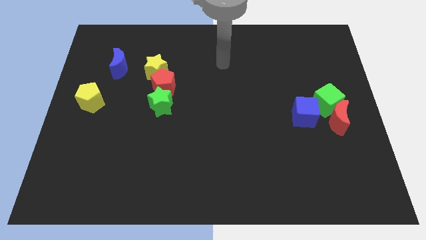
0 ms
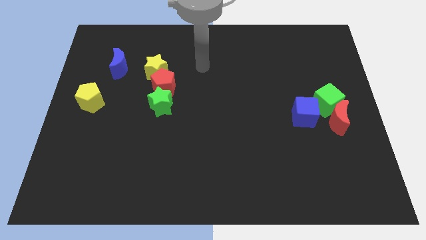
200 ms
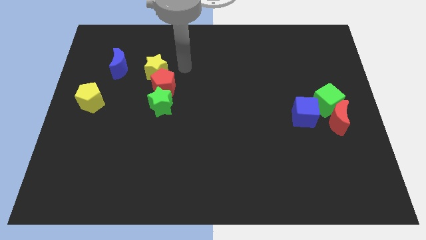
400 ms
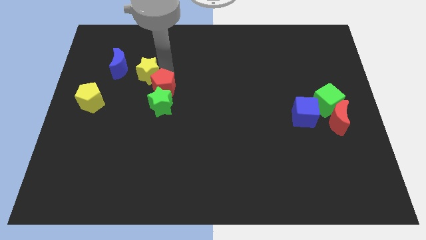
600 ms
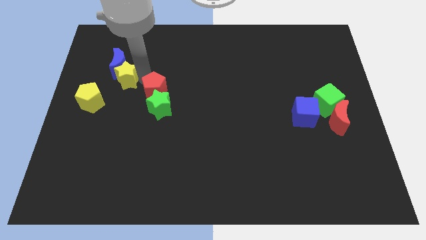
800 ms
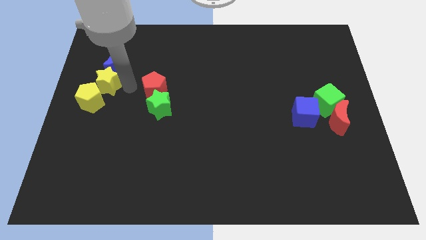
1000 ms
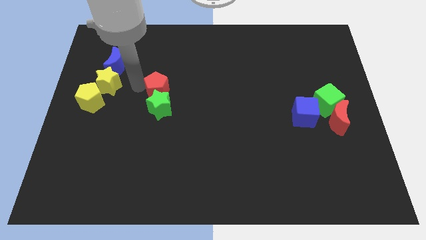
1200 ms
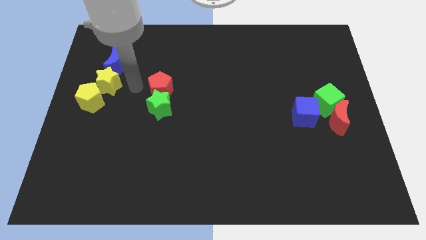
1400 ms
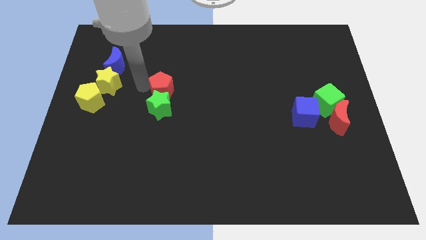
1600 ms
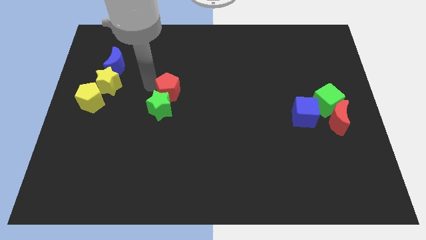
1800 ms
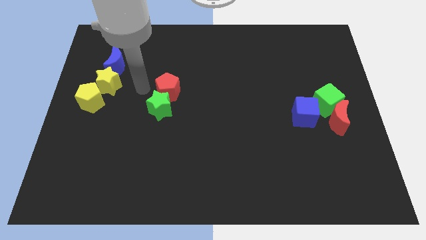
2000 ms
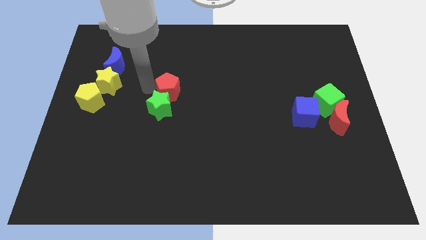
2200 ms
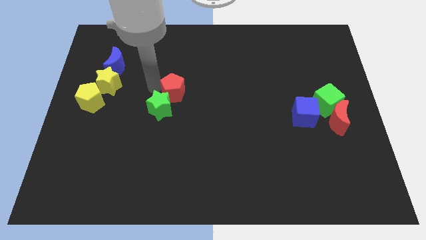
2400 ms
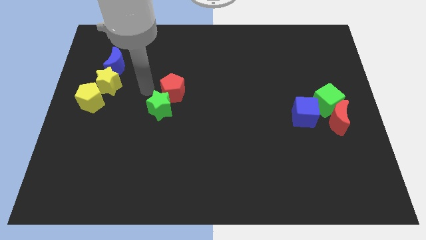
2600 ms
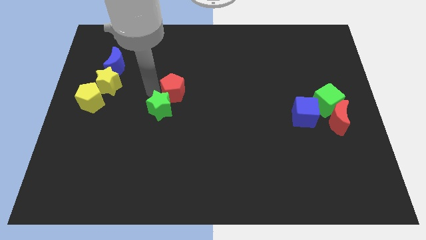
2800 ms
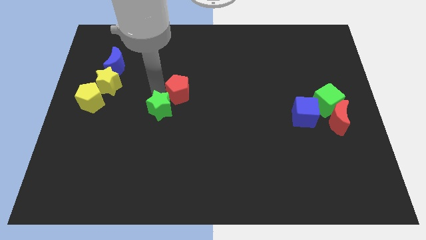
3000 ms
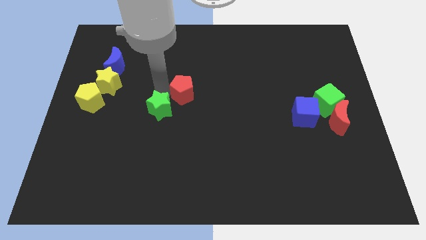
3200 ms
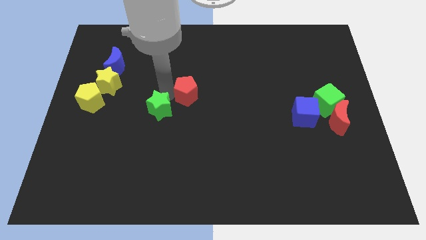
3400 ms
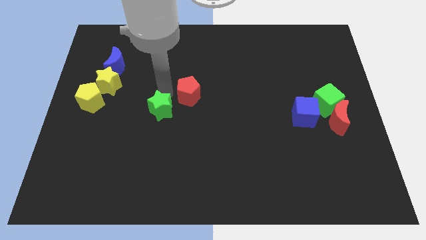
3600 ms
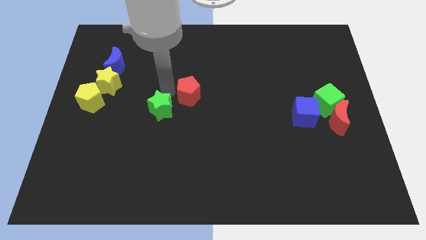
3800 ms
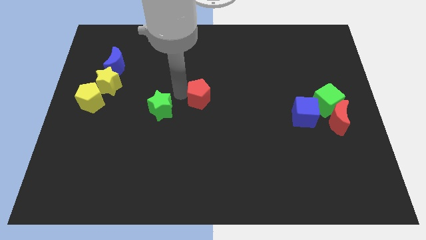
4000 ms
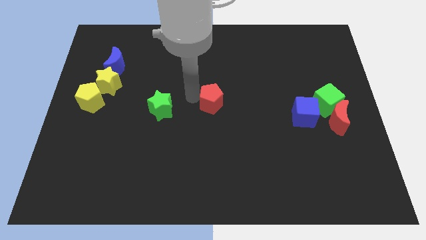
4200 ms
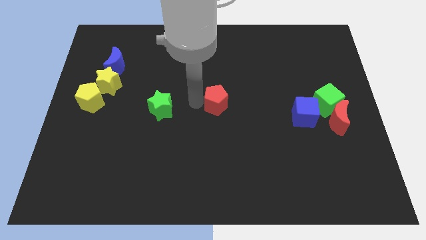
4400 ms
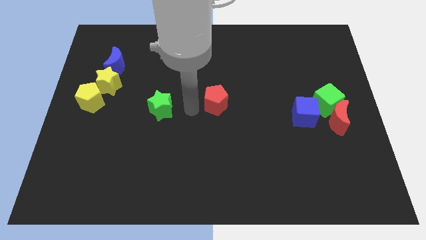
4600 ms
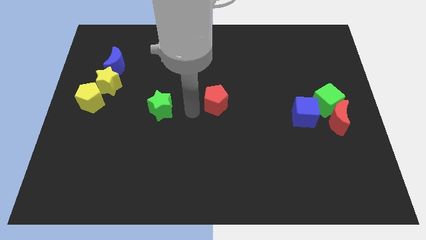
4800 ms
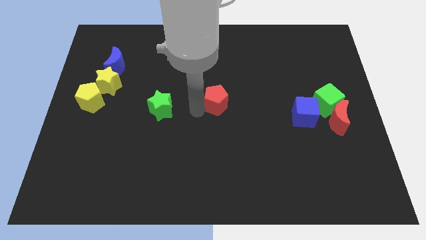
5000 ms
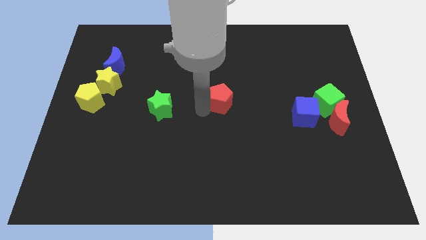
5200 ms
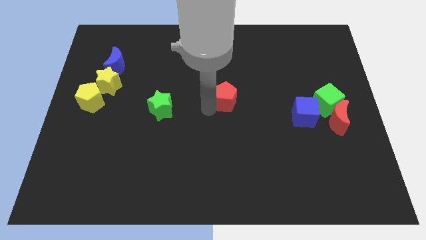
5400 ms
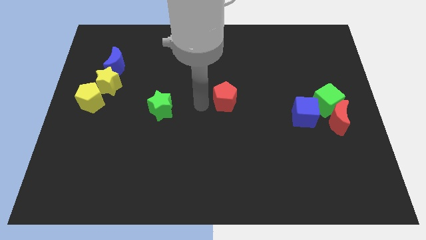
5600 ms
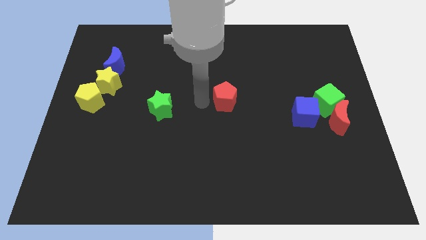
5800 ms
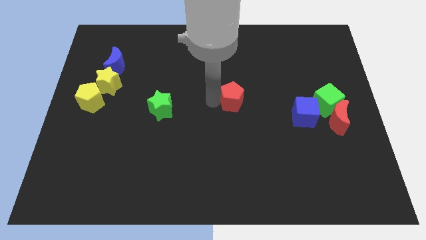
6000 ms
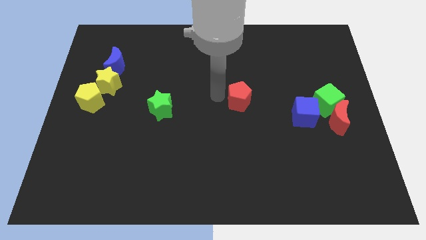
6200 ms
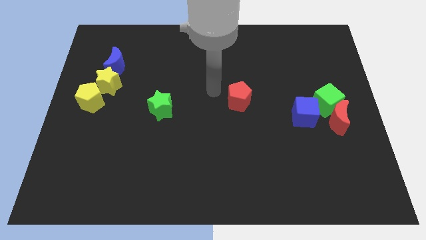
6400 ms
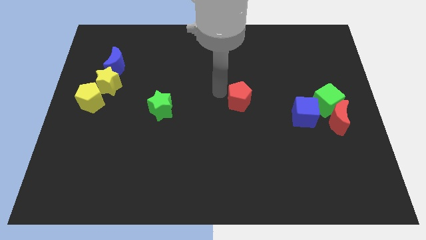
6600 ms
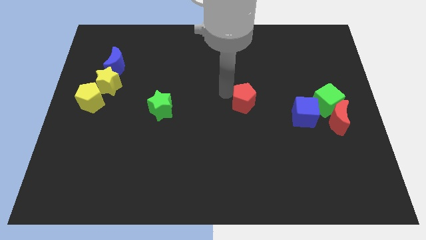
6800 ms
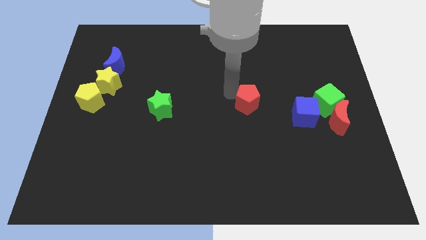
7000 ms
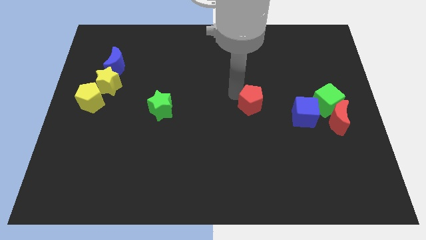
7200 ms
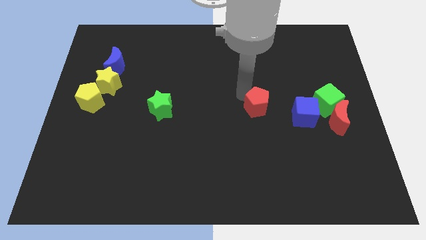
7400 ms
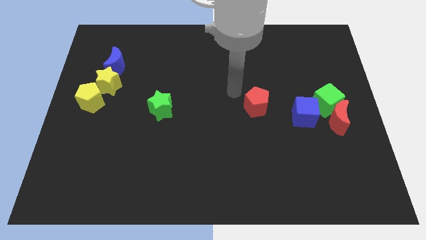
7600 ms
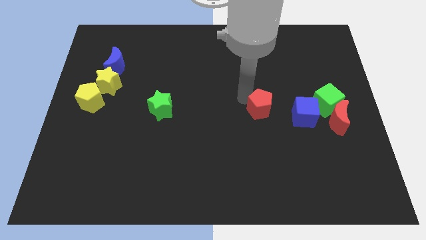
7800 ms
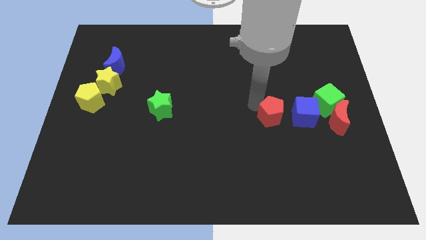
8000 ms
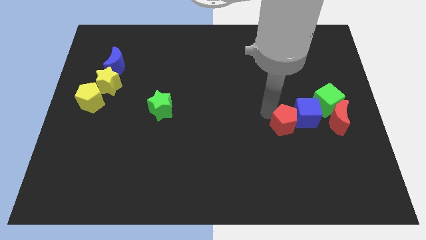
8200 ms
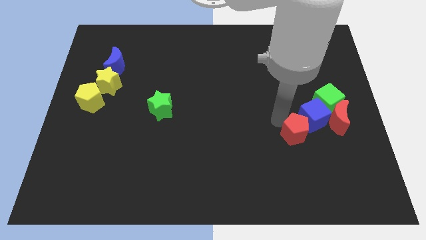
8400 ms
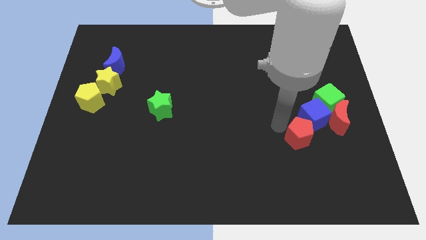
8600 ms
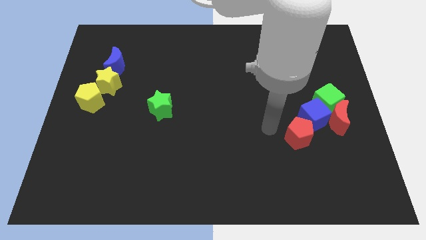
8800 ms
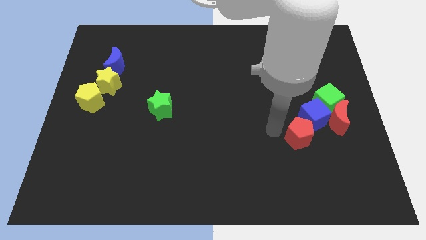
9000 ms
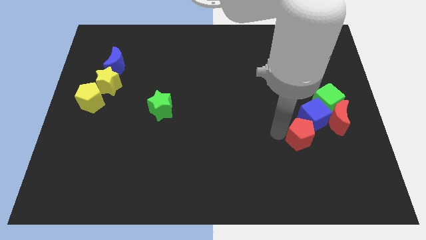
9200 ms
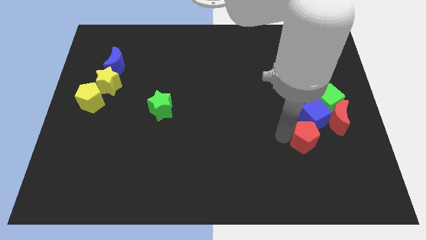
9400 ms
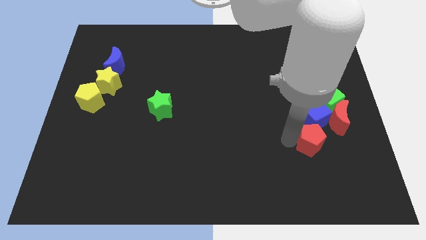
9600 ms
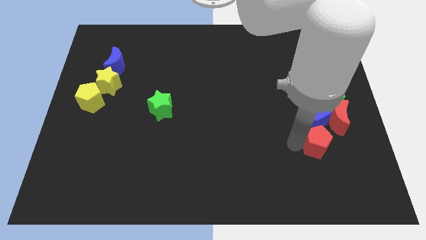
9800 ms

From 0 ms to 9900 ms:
slide the red pentagon to the bottom side of the green cube

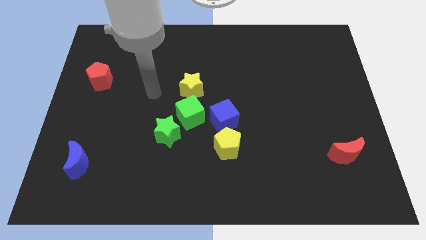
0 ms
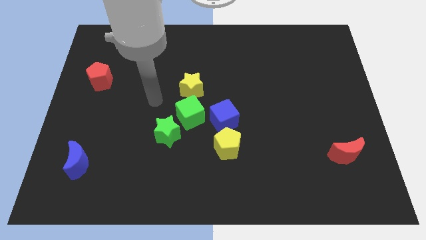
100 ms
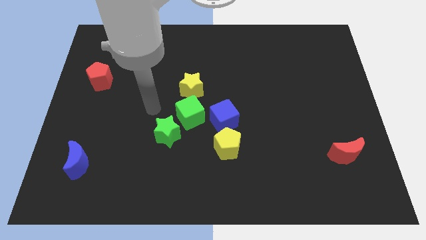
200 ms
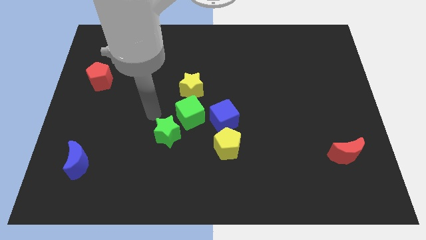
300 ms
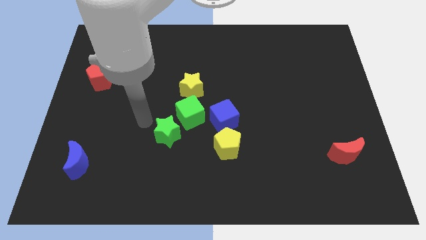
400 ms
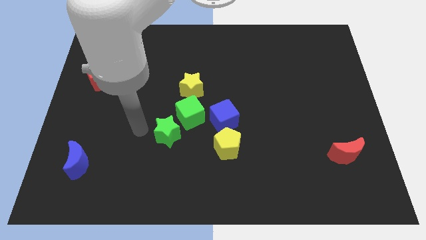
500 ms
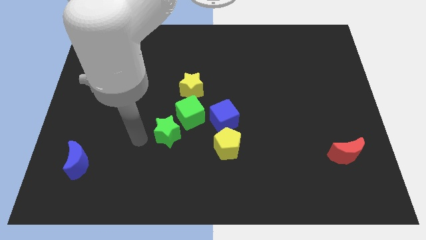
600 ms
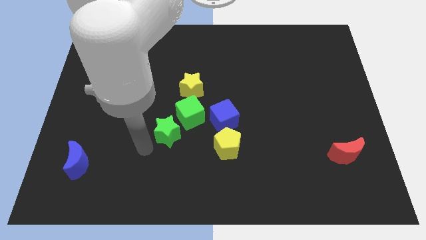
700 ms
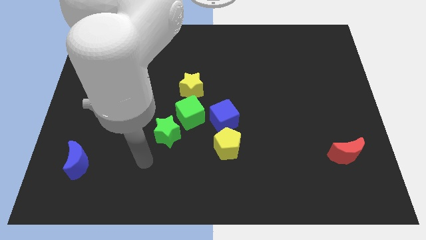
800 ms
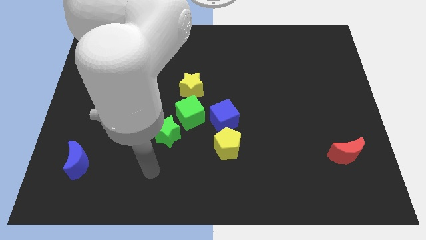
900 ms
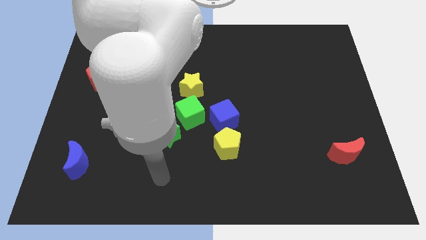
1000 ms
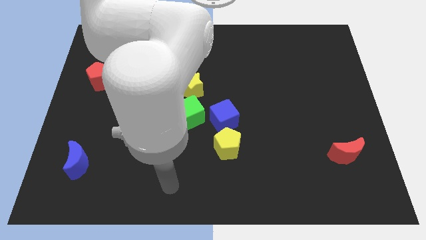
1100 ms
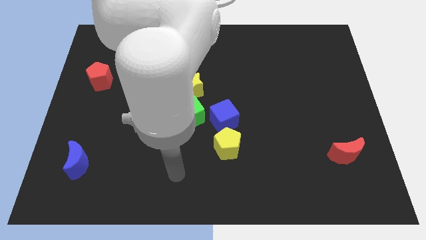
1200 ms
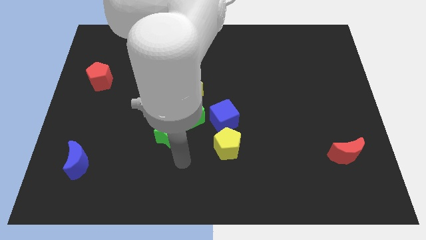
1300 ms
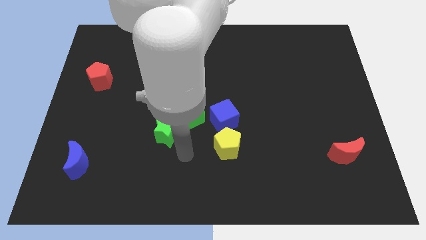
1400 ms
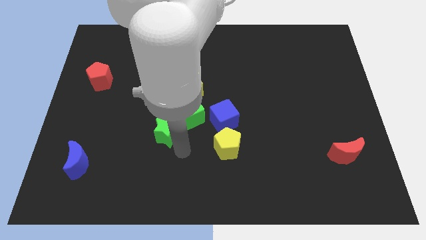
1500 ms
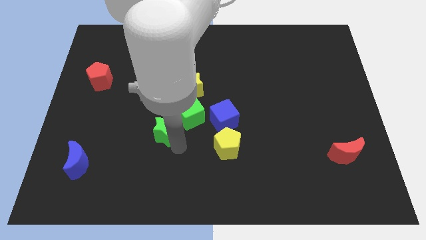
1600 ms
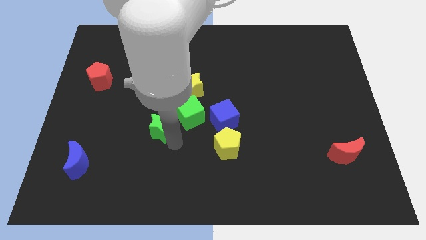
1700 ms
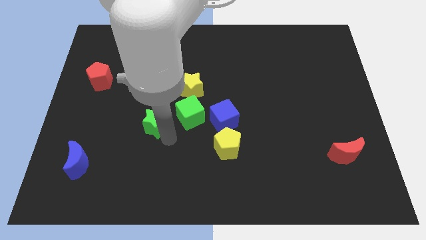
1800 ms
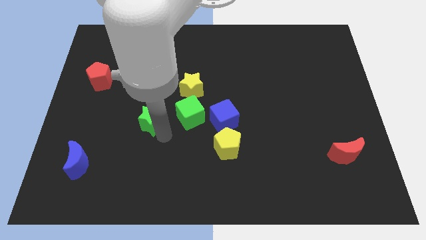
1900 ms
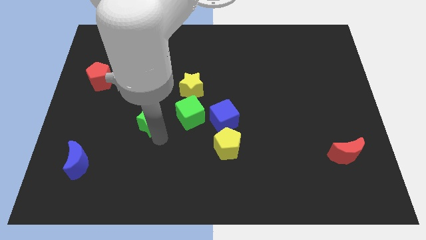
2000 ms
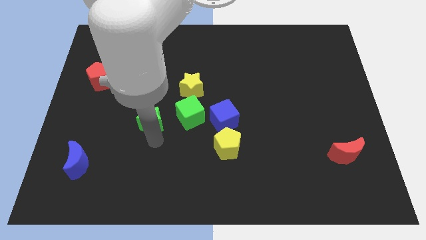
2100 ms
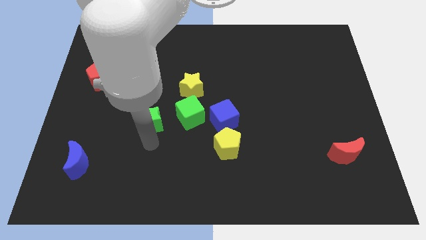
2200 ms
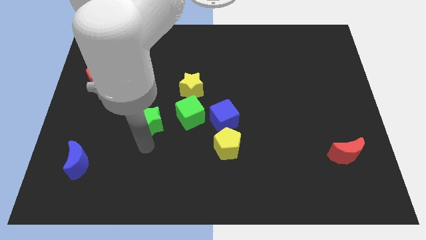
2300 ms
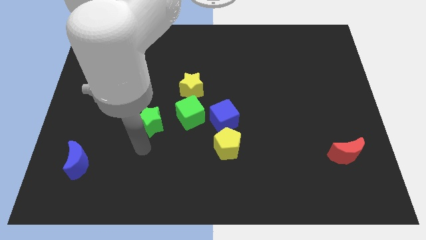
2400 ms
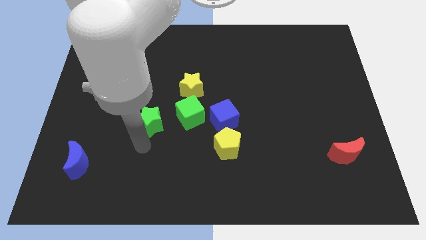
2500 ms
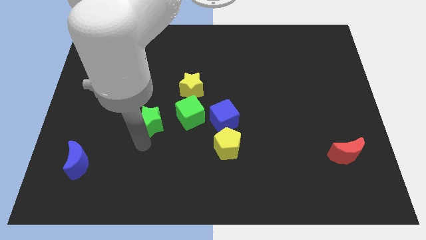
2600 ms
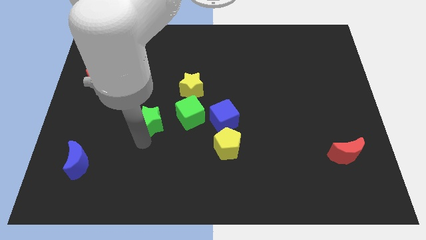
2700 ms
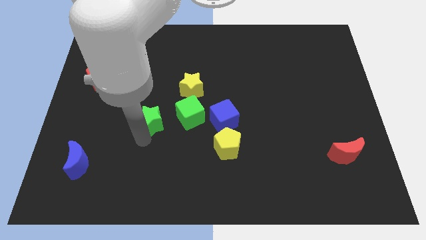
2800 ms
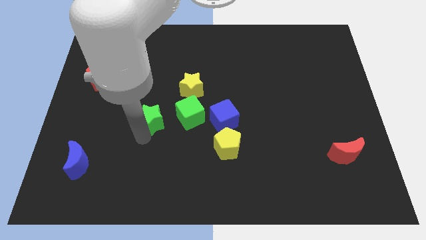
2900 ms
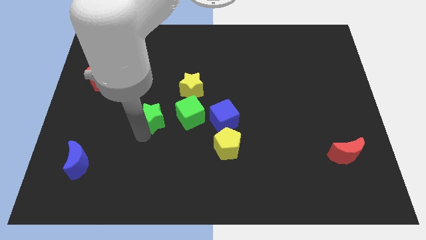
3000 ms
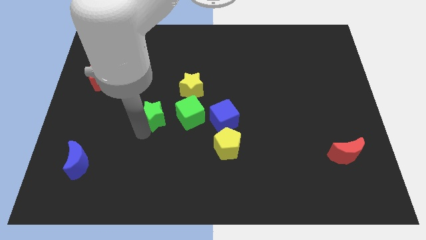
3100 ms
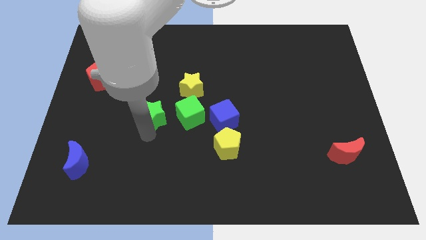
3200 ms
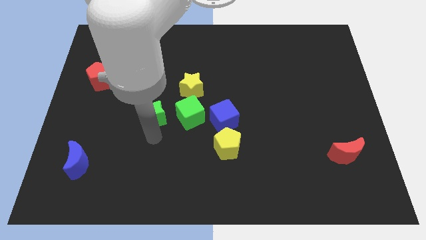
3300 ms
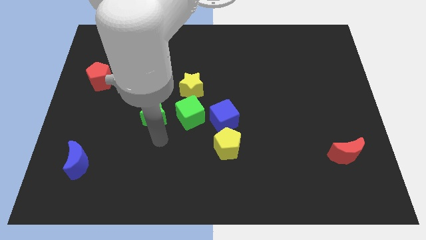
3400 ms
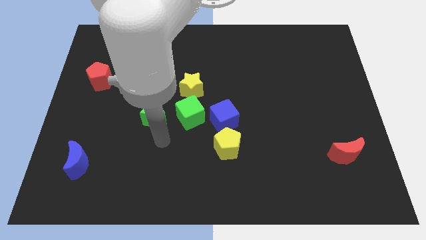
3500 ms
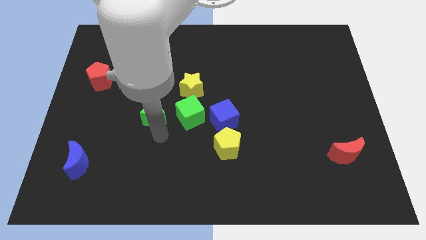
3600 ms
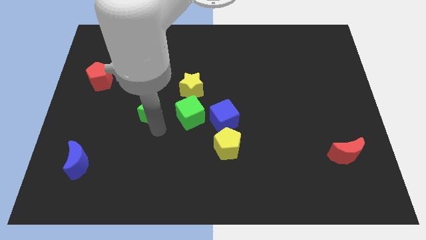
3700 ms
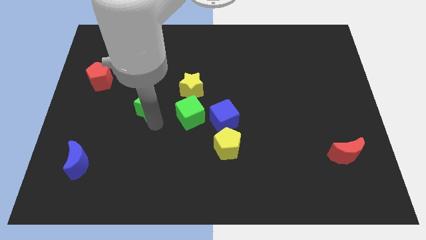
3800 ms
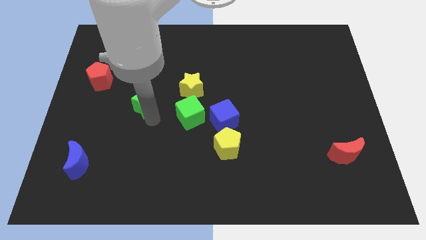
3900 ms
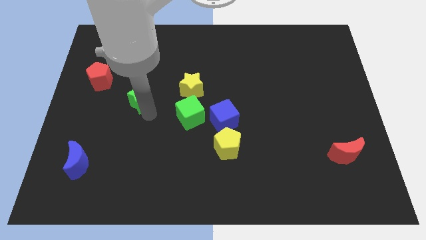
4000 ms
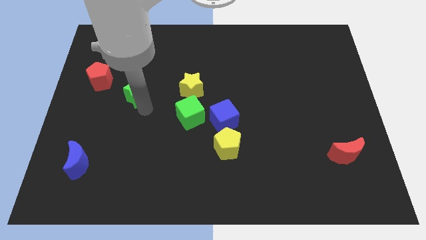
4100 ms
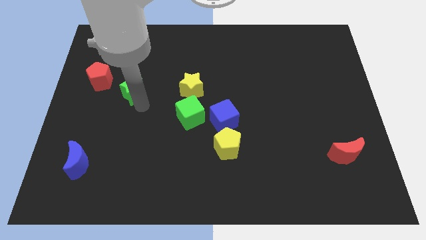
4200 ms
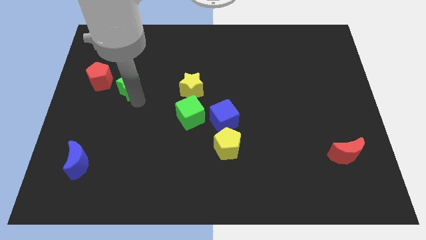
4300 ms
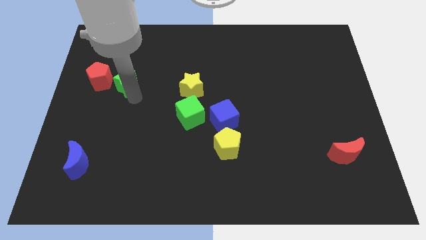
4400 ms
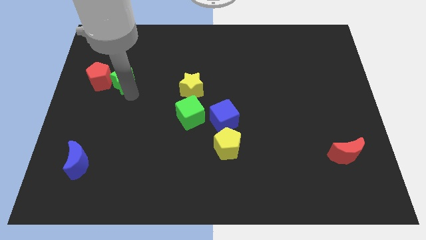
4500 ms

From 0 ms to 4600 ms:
move the green star to the top right side of the red pentagon
